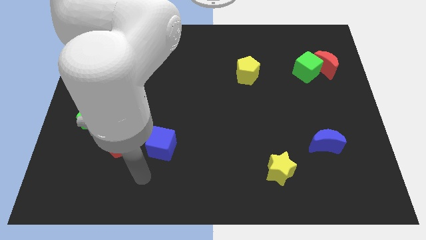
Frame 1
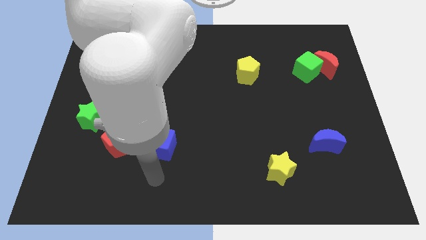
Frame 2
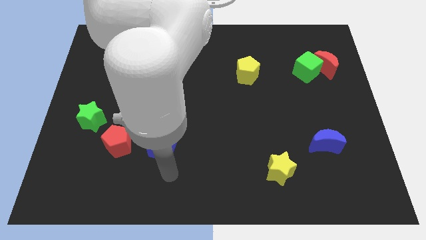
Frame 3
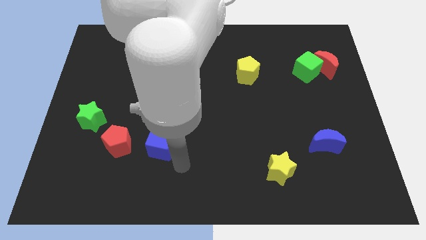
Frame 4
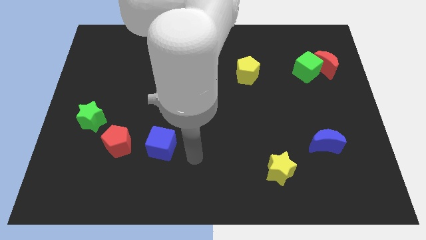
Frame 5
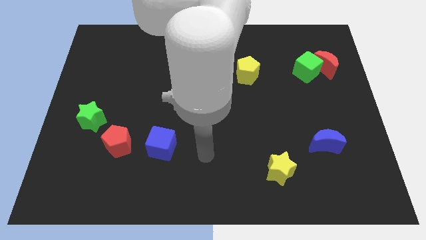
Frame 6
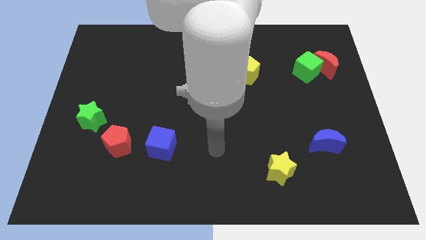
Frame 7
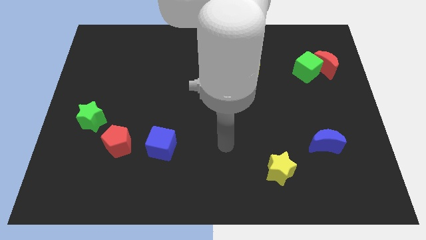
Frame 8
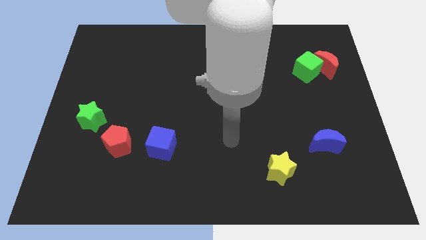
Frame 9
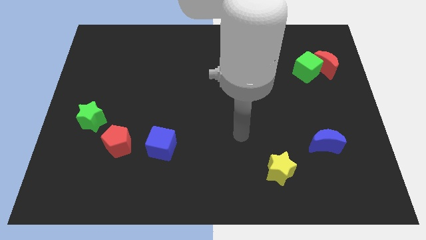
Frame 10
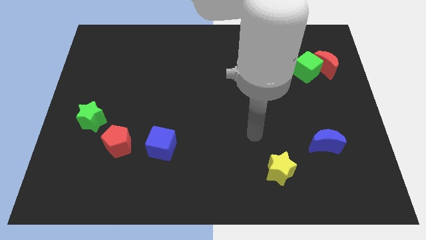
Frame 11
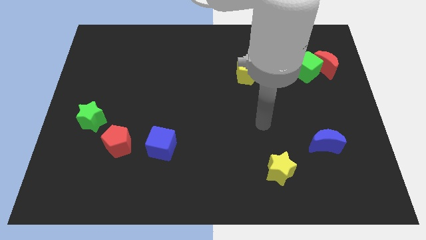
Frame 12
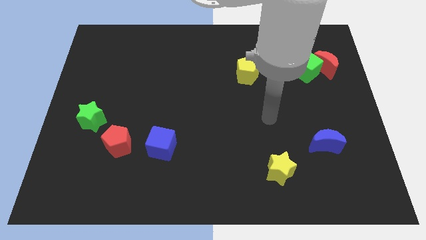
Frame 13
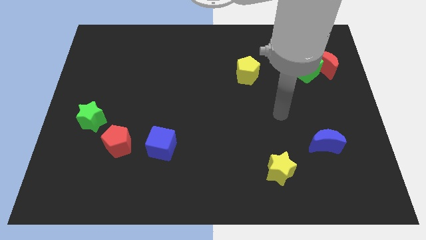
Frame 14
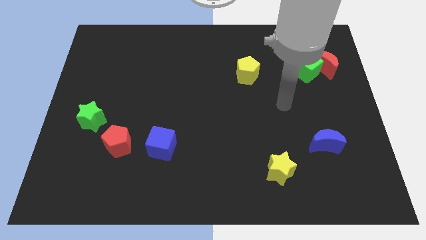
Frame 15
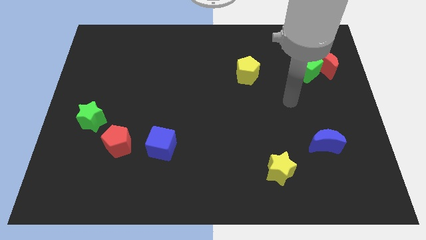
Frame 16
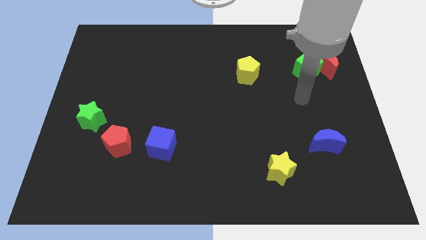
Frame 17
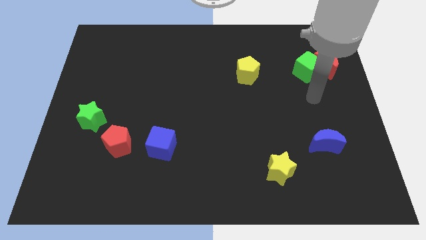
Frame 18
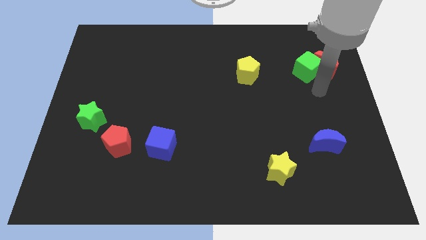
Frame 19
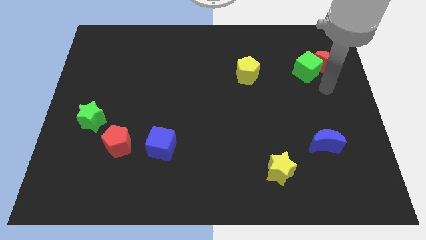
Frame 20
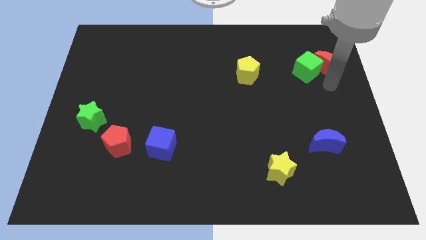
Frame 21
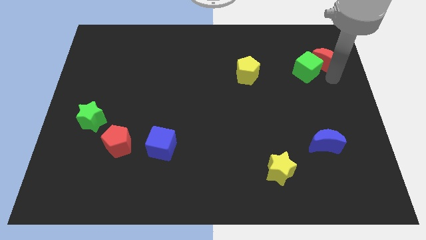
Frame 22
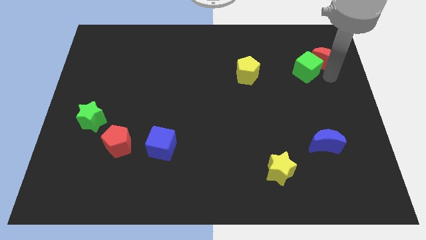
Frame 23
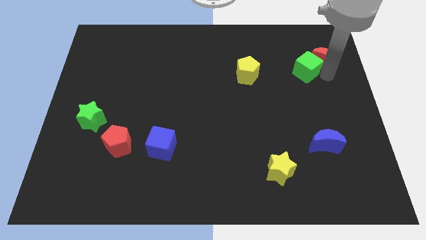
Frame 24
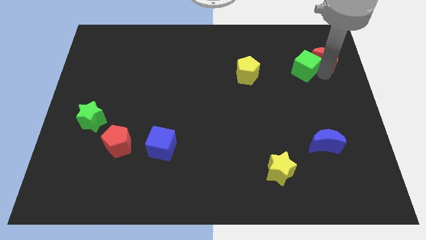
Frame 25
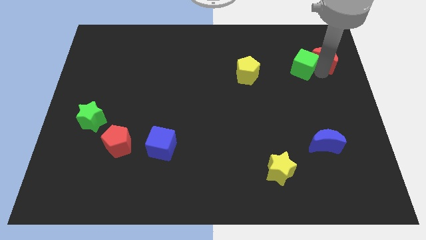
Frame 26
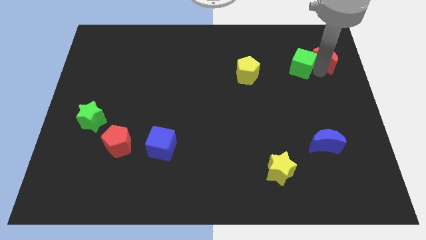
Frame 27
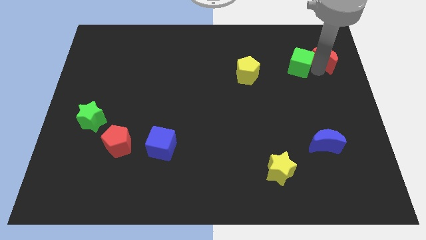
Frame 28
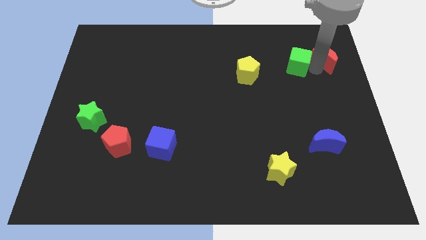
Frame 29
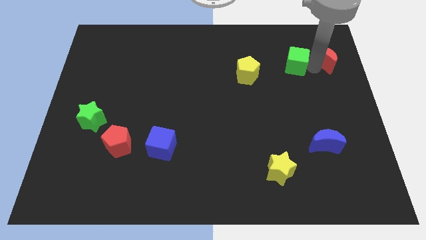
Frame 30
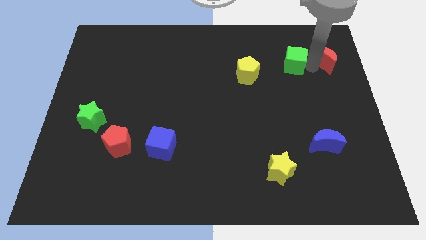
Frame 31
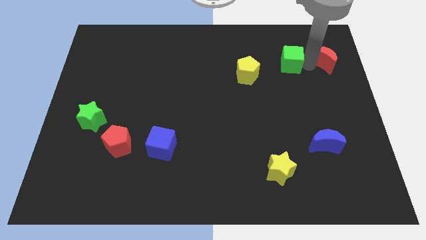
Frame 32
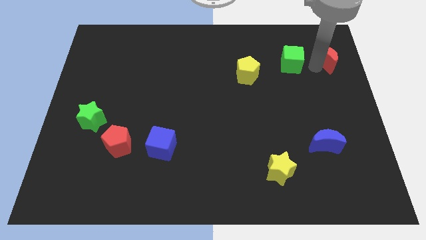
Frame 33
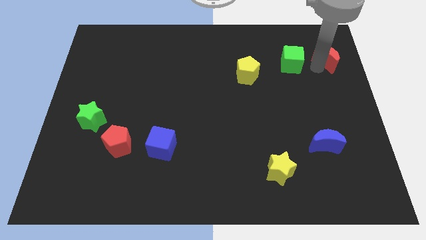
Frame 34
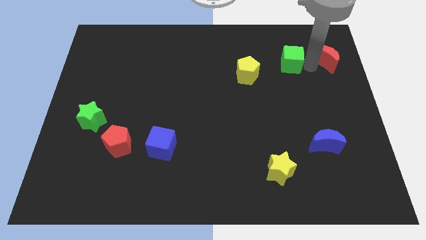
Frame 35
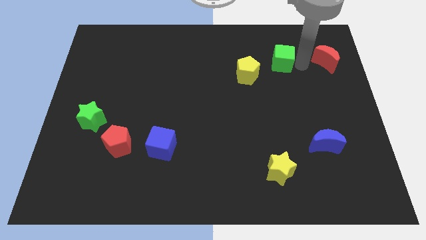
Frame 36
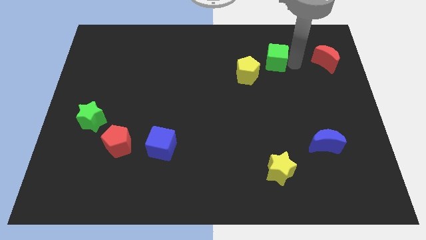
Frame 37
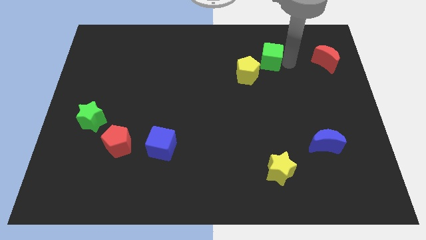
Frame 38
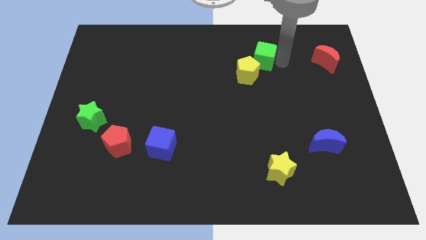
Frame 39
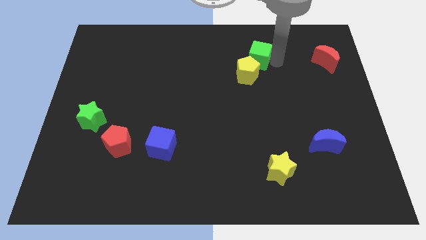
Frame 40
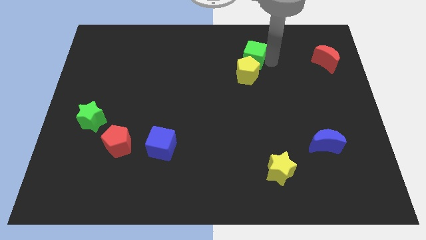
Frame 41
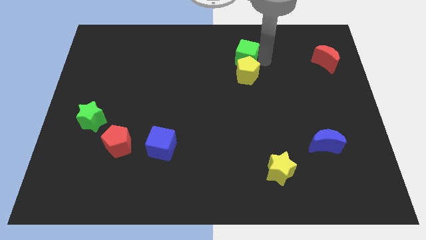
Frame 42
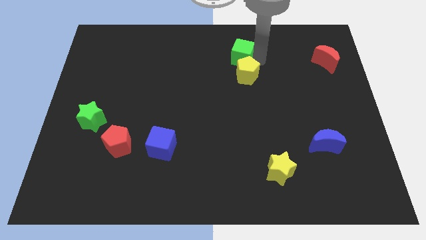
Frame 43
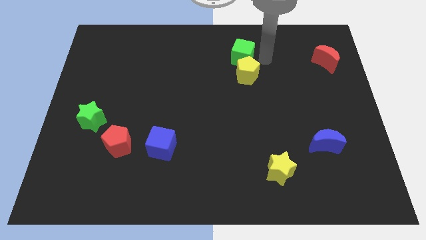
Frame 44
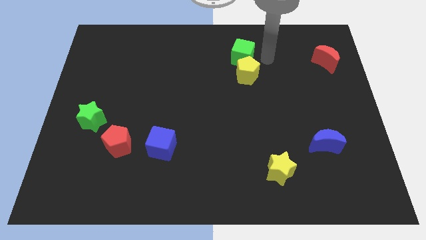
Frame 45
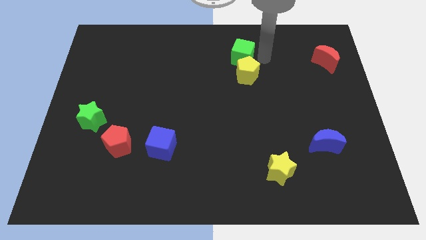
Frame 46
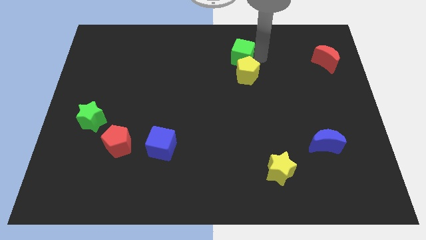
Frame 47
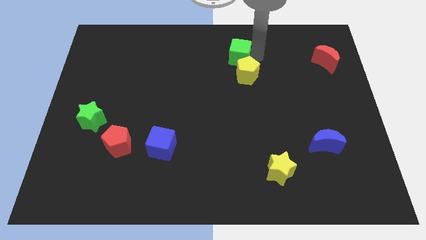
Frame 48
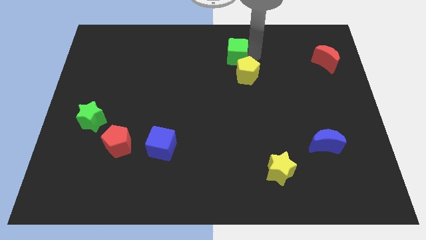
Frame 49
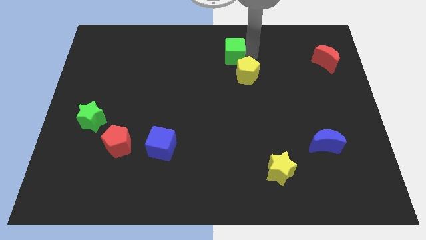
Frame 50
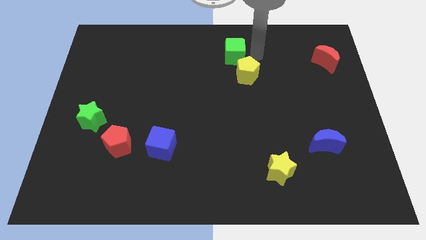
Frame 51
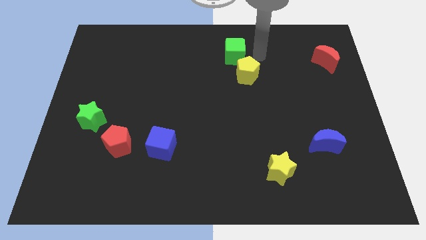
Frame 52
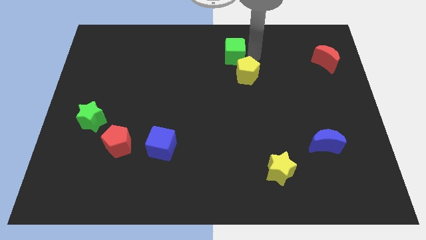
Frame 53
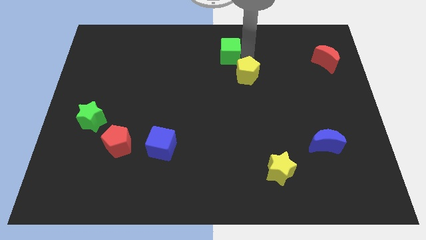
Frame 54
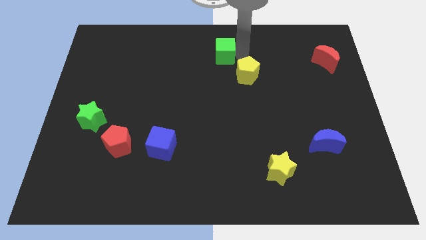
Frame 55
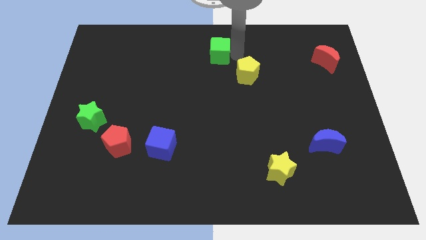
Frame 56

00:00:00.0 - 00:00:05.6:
push the green cube left

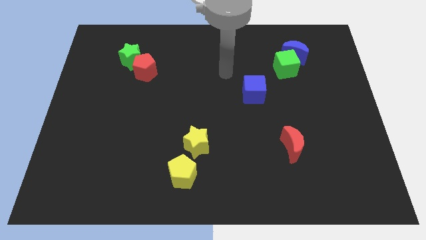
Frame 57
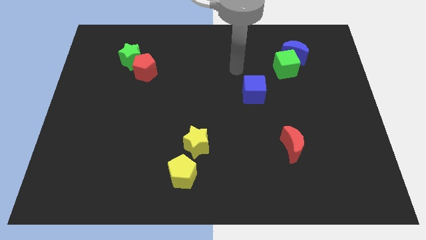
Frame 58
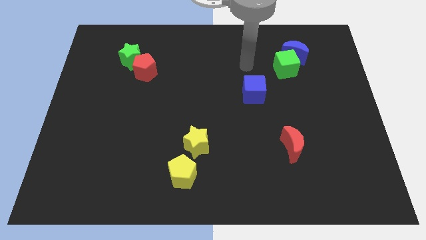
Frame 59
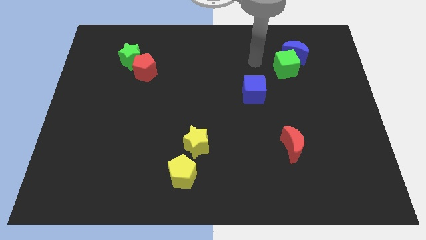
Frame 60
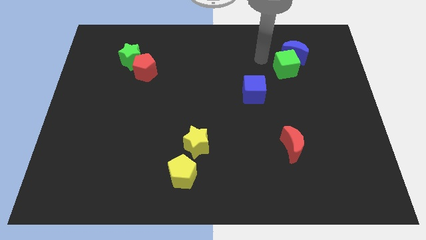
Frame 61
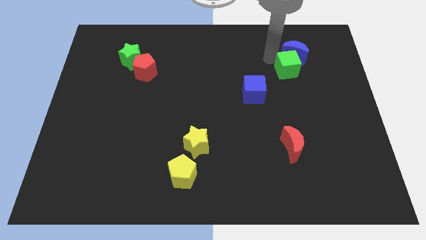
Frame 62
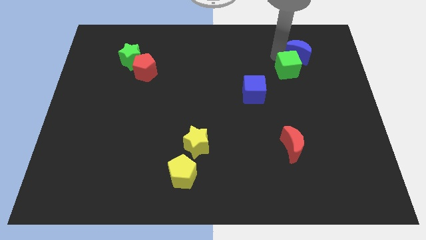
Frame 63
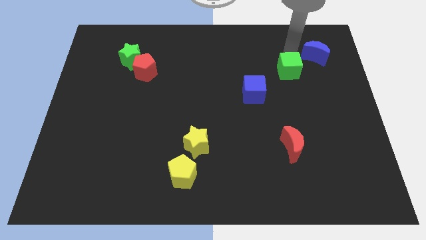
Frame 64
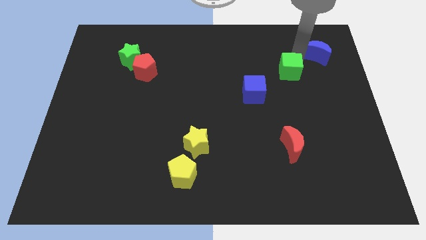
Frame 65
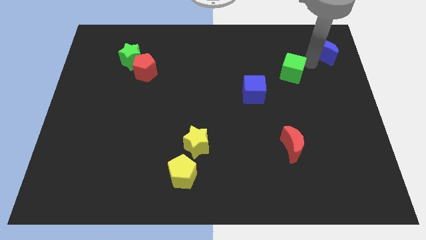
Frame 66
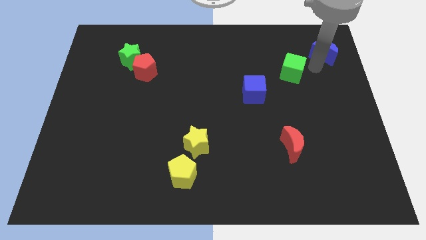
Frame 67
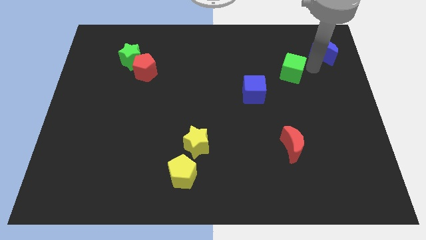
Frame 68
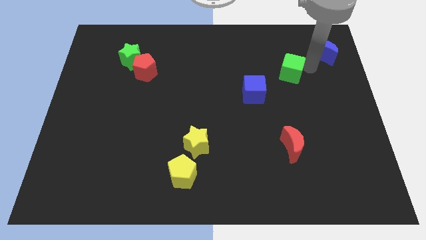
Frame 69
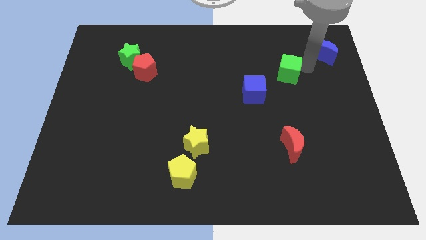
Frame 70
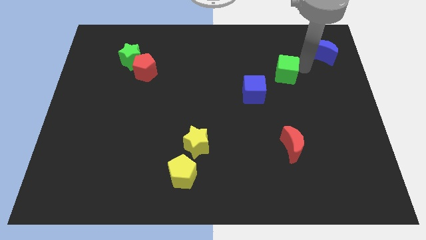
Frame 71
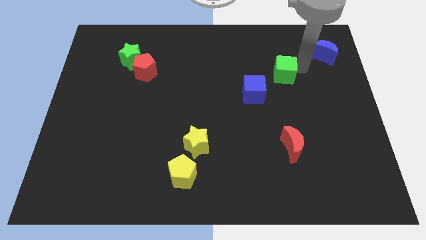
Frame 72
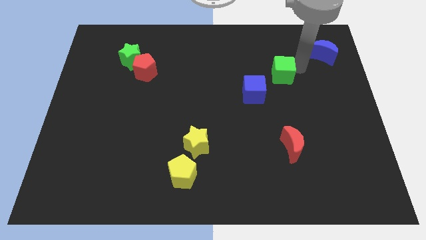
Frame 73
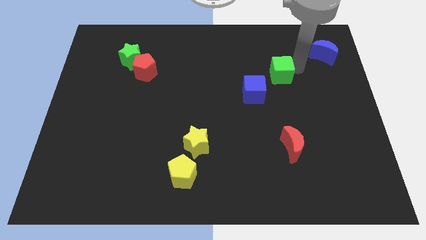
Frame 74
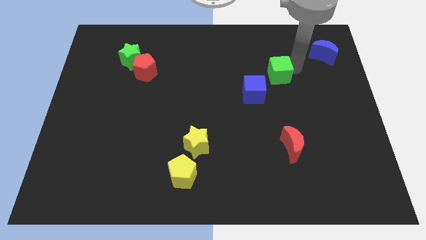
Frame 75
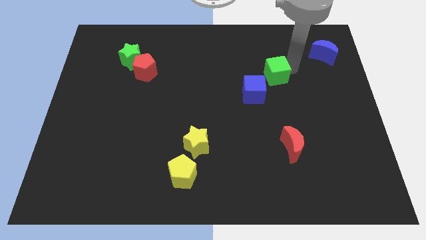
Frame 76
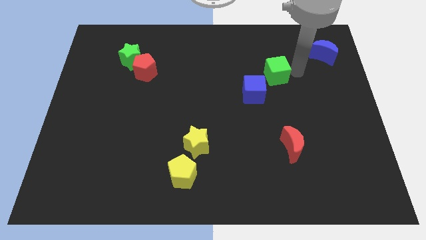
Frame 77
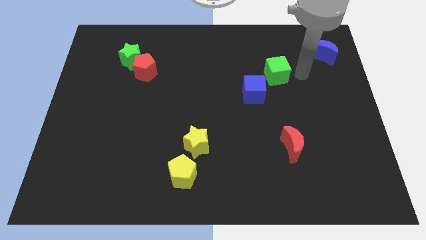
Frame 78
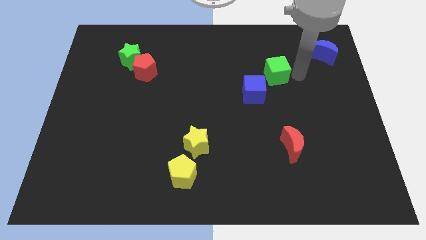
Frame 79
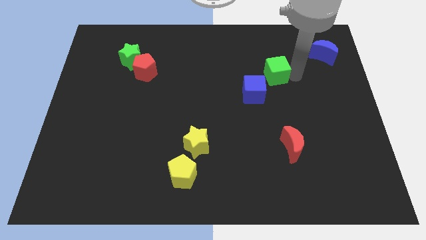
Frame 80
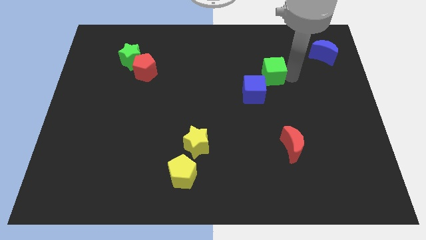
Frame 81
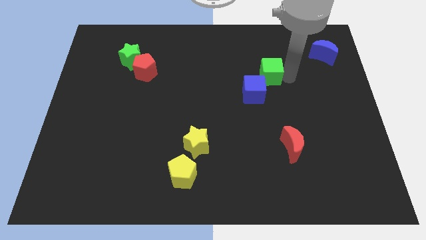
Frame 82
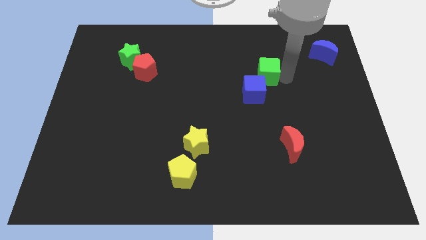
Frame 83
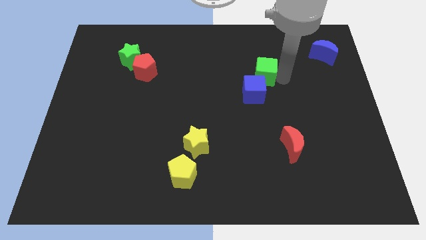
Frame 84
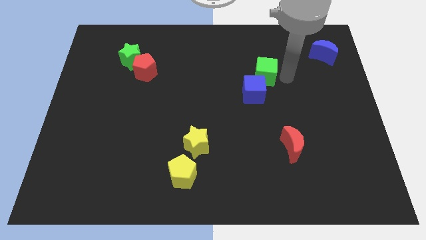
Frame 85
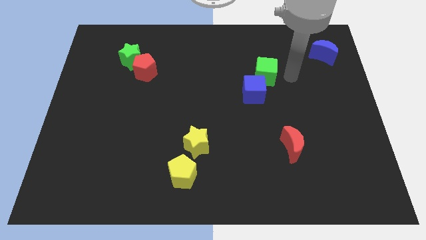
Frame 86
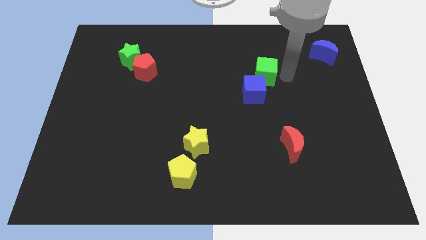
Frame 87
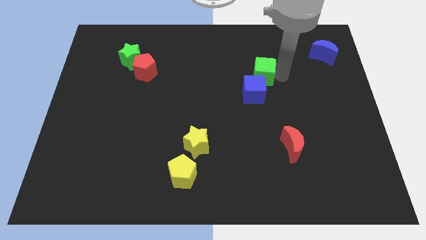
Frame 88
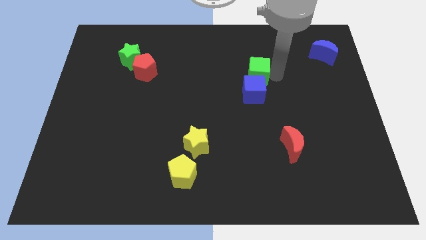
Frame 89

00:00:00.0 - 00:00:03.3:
slide the green cube a little bit to the left
